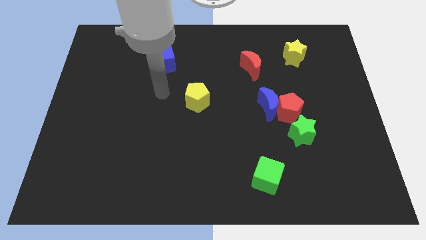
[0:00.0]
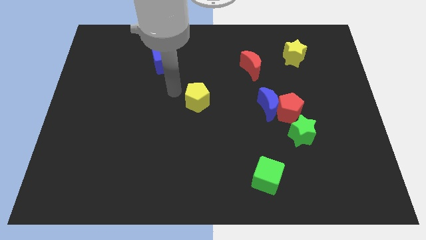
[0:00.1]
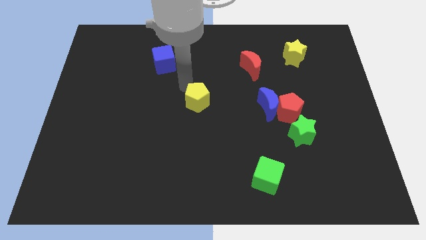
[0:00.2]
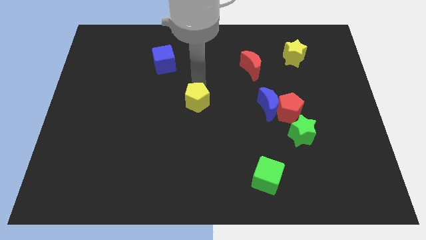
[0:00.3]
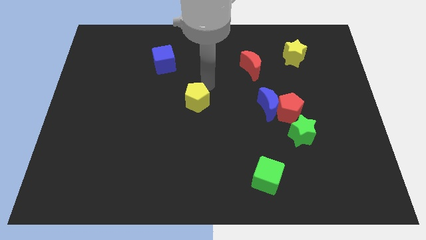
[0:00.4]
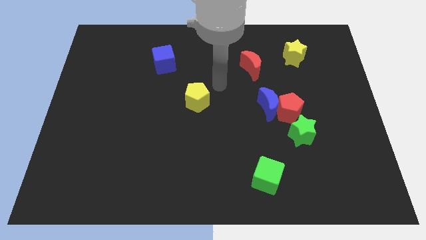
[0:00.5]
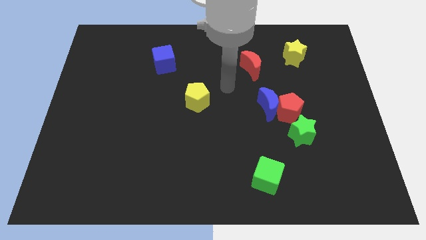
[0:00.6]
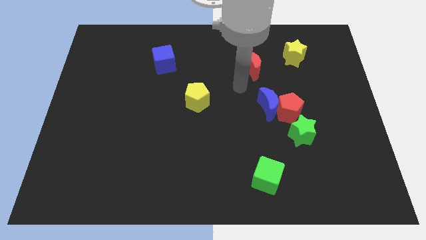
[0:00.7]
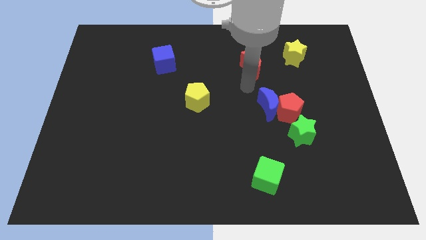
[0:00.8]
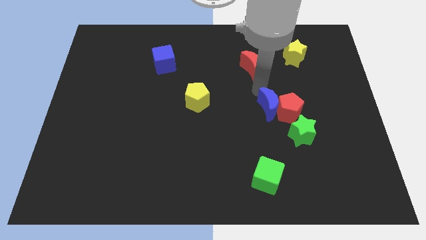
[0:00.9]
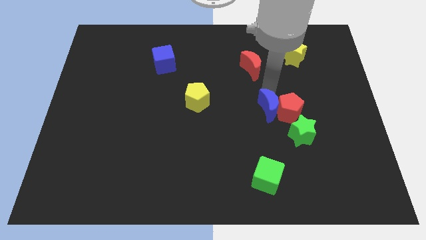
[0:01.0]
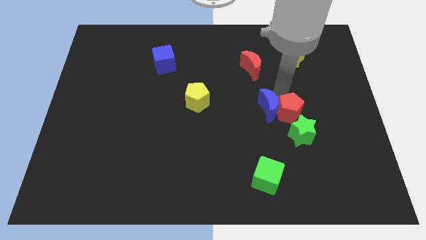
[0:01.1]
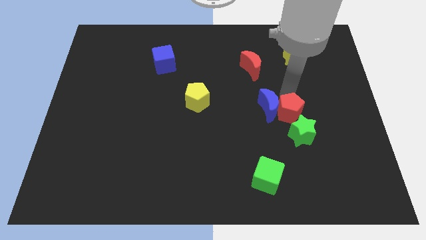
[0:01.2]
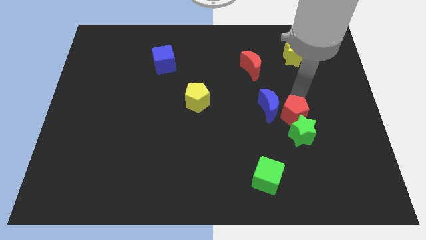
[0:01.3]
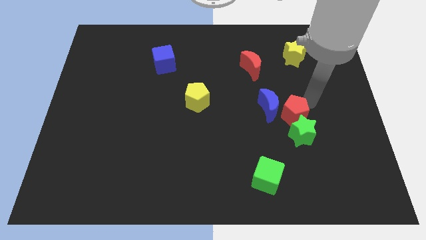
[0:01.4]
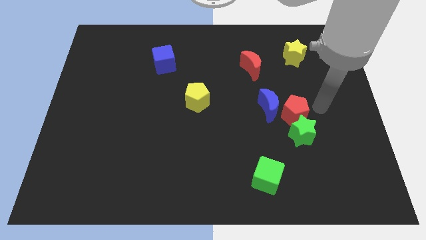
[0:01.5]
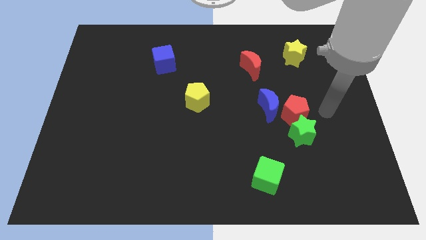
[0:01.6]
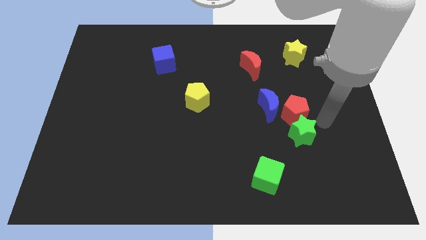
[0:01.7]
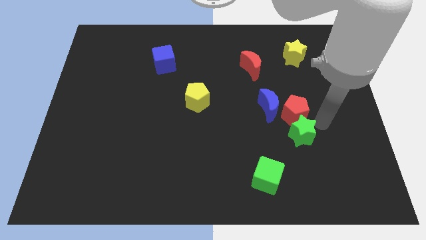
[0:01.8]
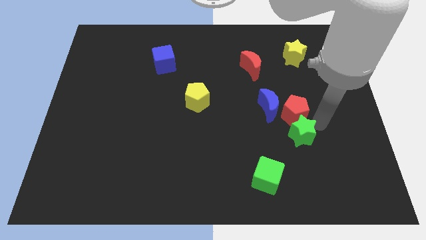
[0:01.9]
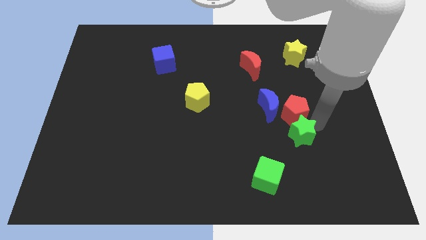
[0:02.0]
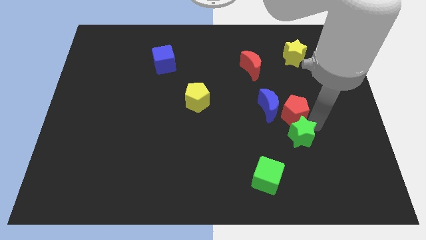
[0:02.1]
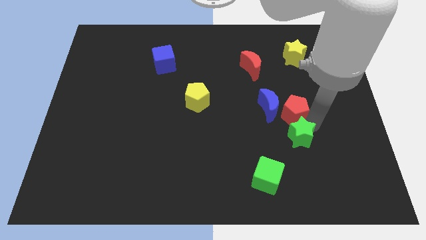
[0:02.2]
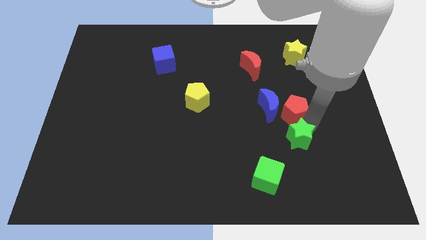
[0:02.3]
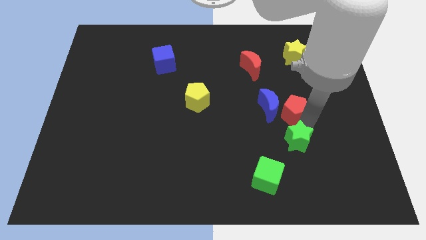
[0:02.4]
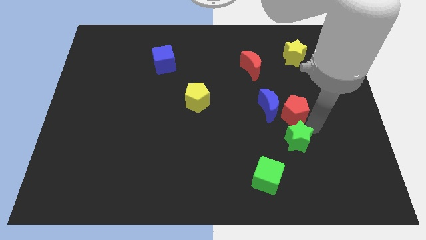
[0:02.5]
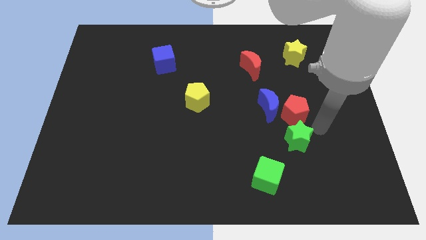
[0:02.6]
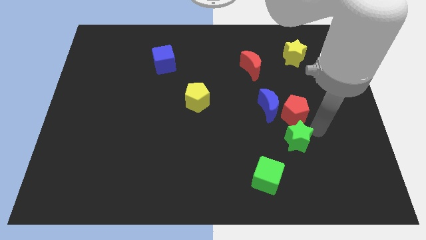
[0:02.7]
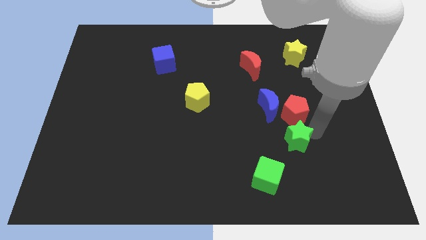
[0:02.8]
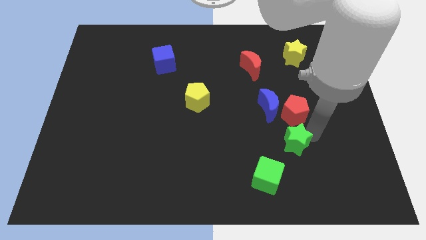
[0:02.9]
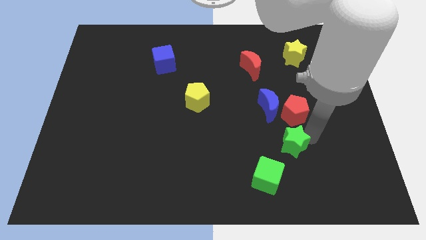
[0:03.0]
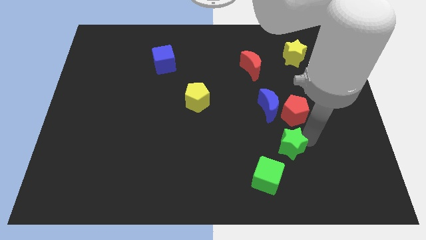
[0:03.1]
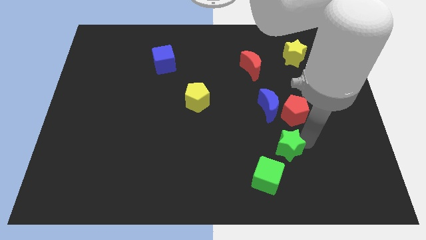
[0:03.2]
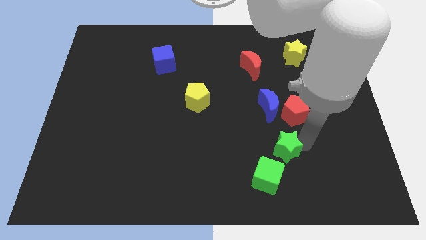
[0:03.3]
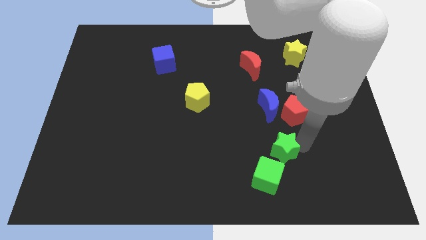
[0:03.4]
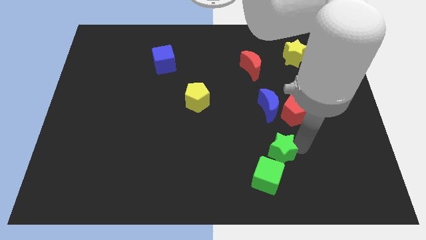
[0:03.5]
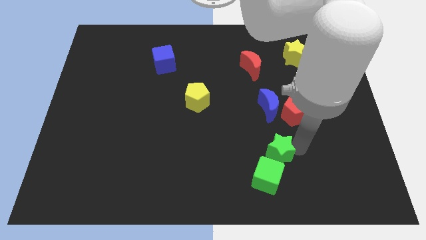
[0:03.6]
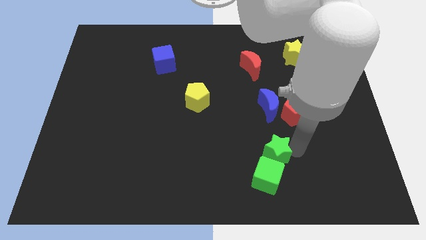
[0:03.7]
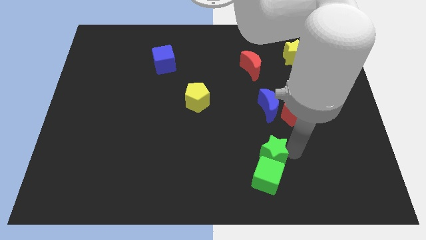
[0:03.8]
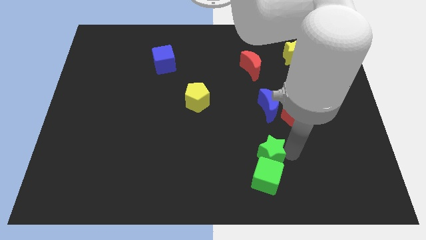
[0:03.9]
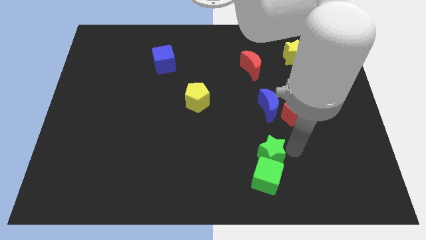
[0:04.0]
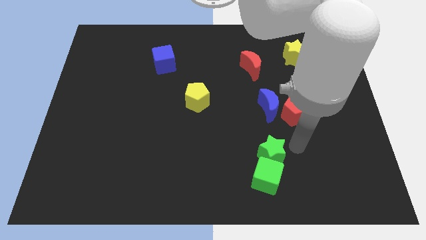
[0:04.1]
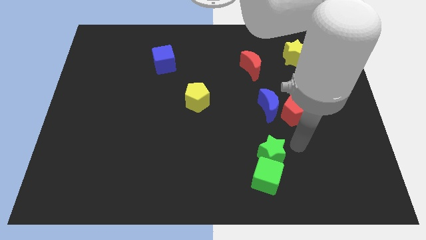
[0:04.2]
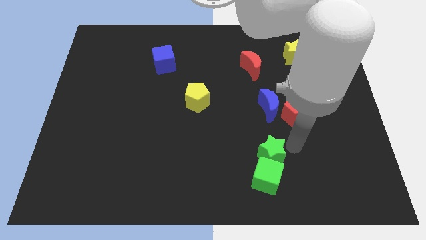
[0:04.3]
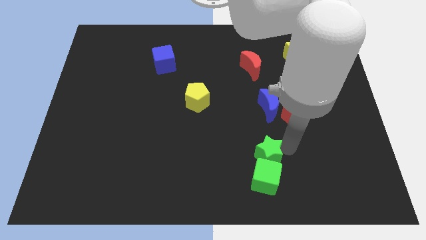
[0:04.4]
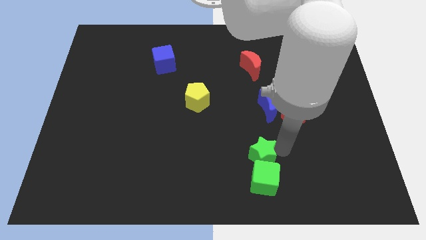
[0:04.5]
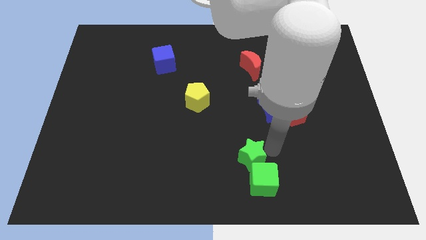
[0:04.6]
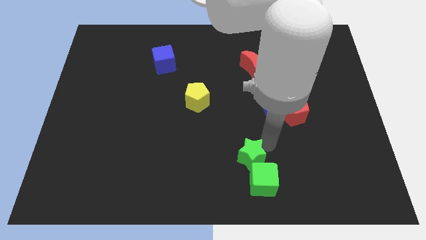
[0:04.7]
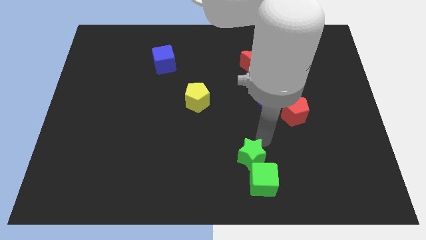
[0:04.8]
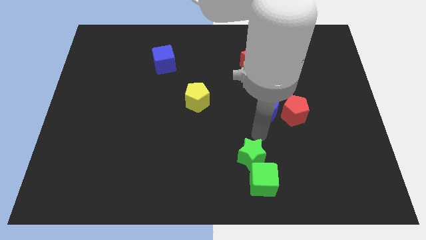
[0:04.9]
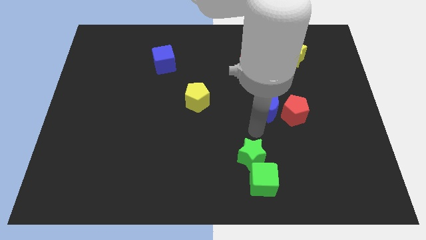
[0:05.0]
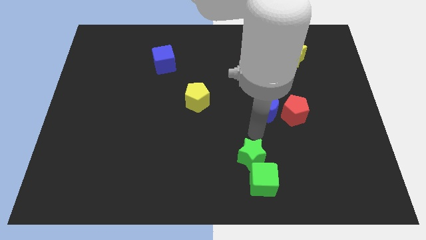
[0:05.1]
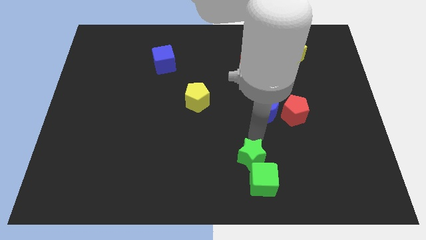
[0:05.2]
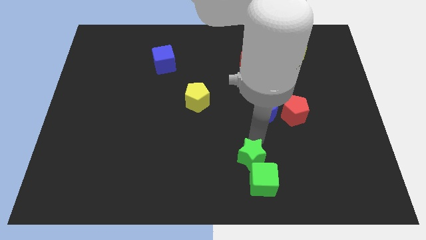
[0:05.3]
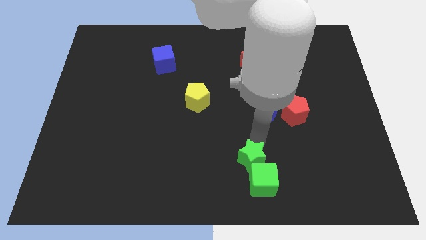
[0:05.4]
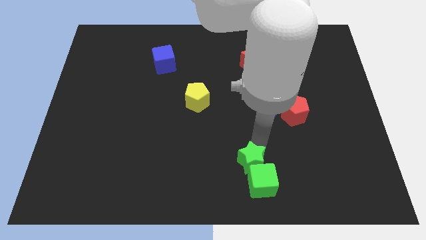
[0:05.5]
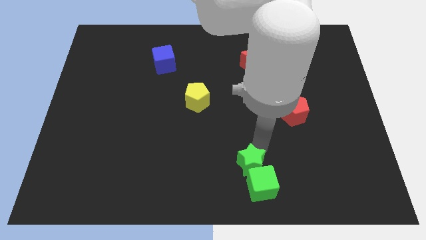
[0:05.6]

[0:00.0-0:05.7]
push the green star to the bottom

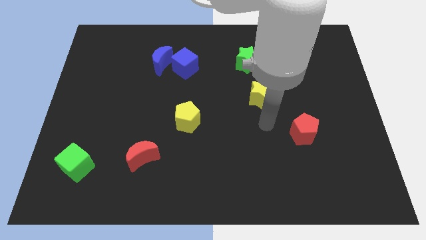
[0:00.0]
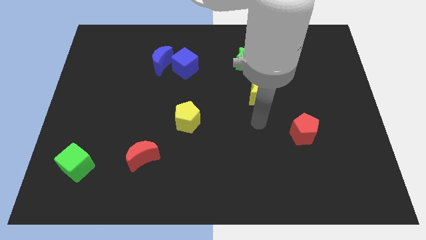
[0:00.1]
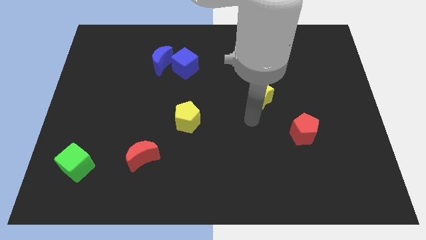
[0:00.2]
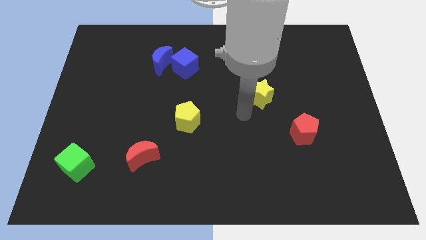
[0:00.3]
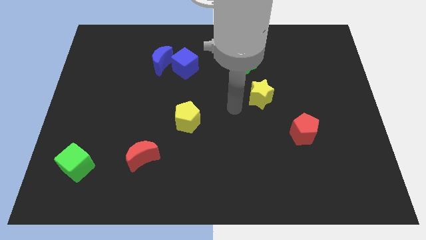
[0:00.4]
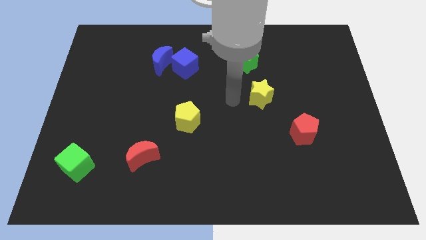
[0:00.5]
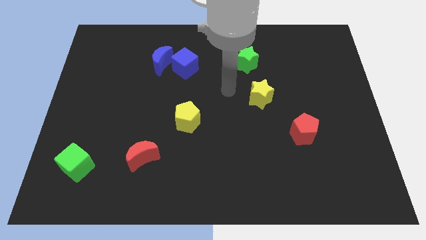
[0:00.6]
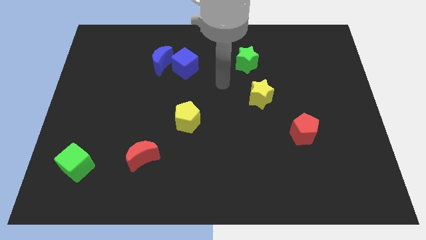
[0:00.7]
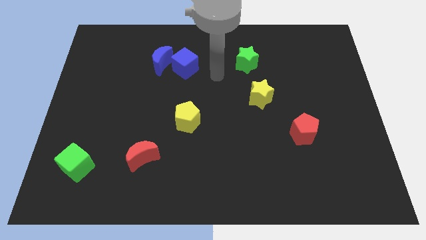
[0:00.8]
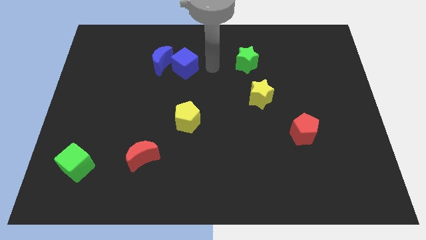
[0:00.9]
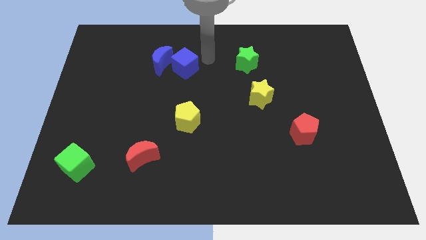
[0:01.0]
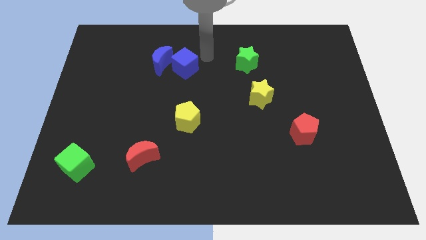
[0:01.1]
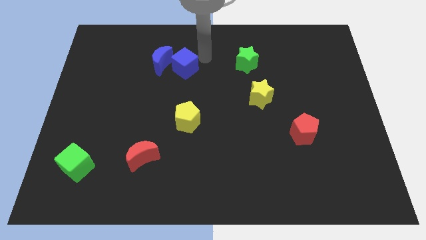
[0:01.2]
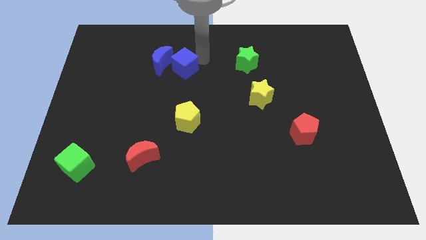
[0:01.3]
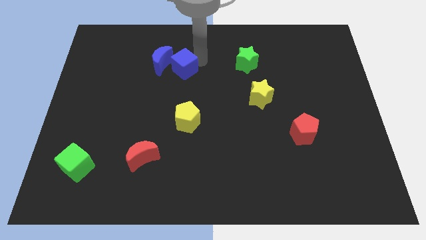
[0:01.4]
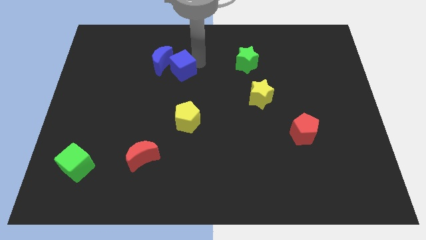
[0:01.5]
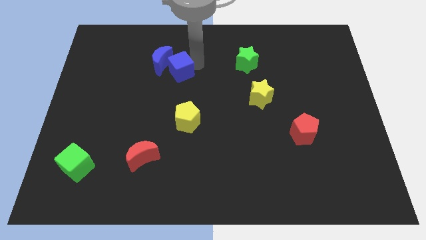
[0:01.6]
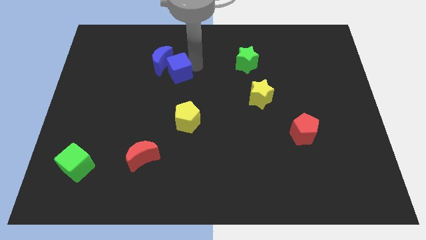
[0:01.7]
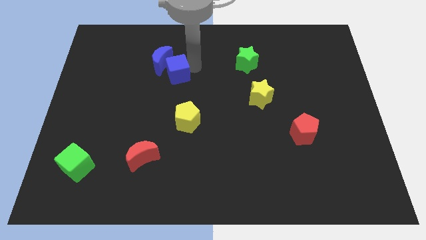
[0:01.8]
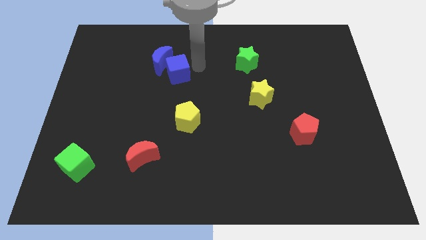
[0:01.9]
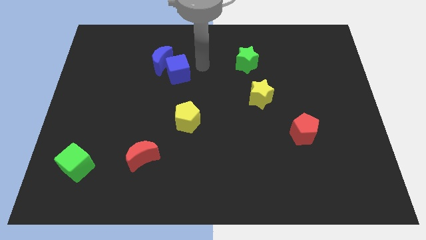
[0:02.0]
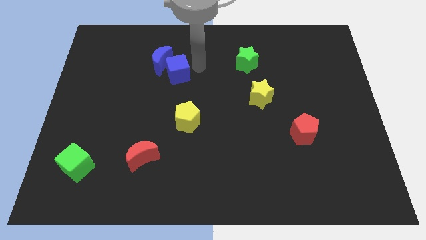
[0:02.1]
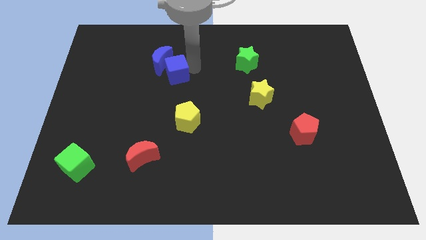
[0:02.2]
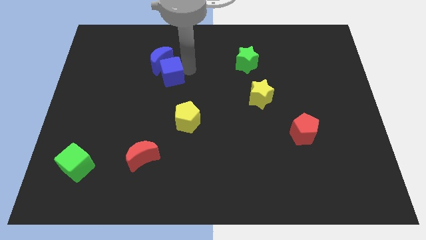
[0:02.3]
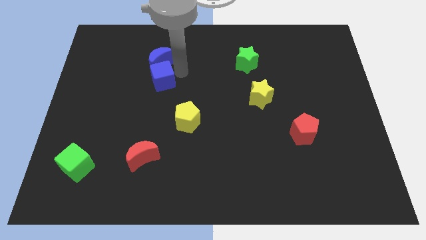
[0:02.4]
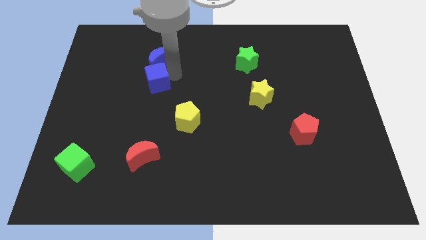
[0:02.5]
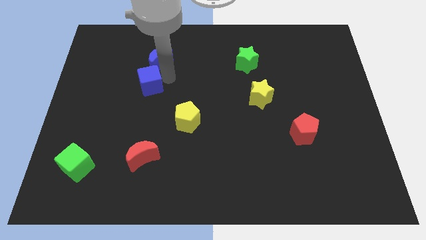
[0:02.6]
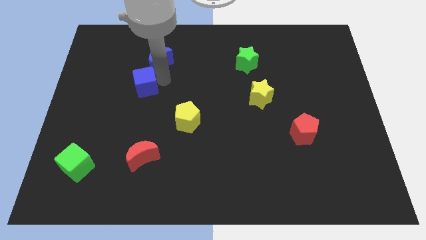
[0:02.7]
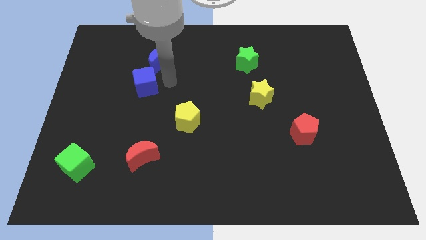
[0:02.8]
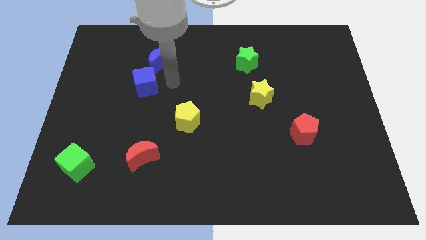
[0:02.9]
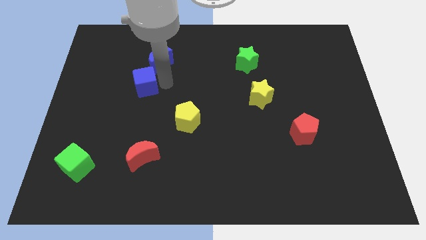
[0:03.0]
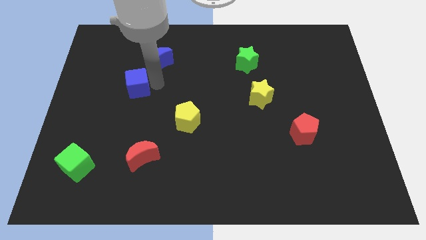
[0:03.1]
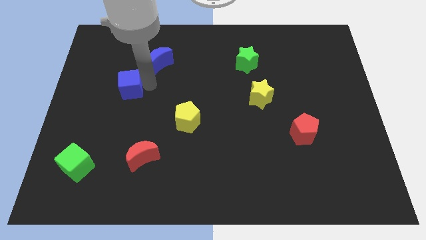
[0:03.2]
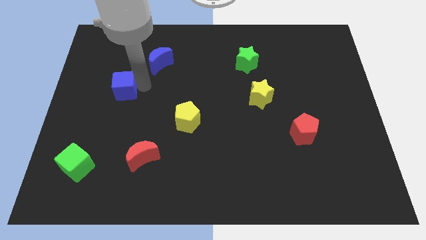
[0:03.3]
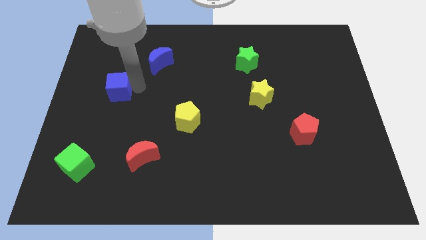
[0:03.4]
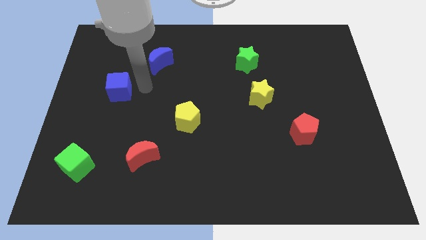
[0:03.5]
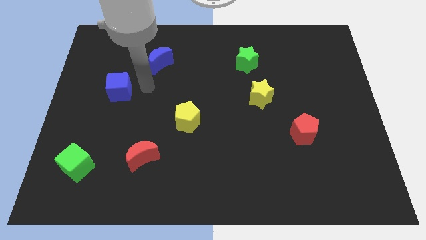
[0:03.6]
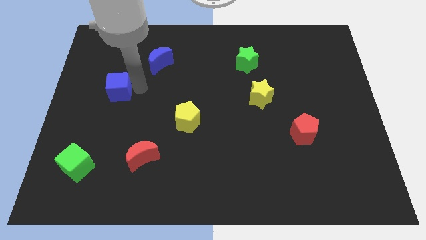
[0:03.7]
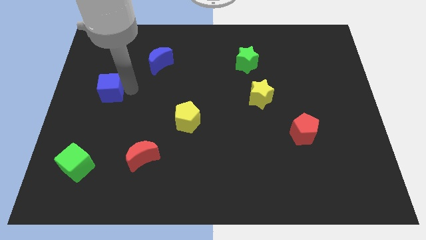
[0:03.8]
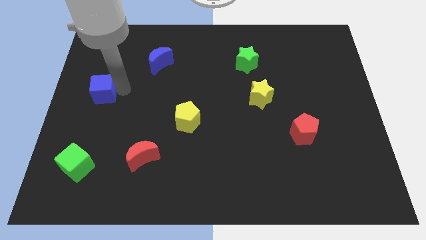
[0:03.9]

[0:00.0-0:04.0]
push the blue cube to the left side of the board
